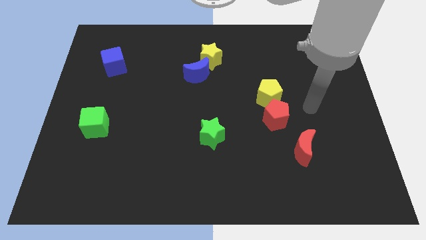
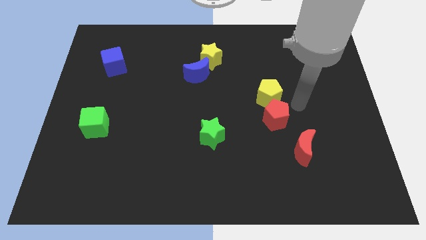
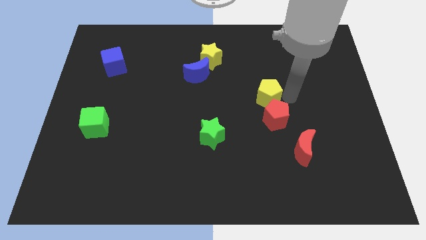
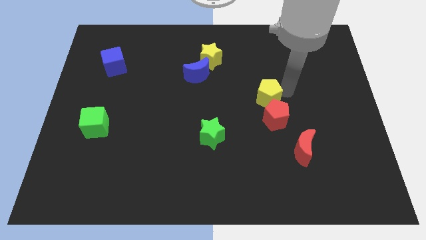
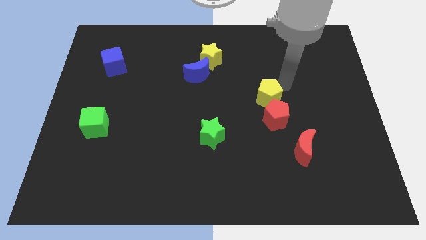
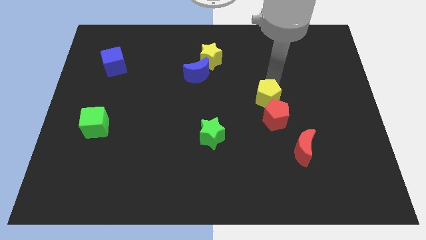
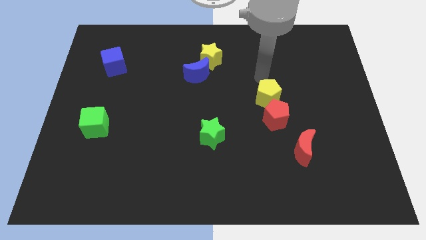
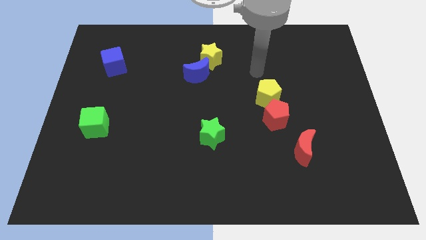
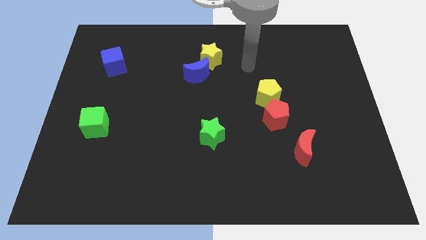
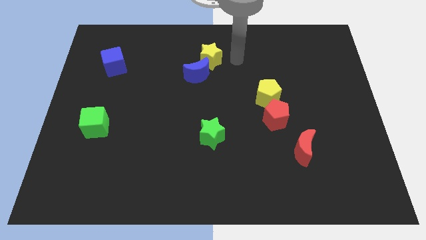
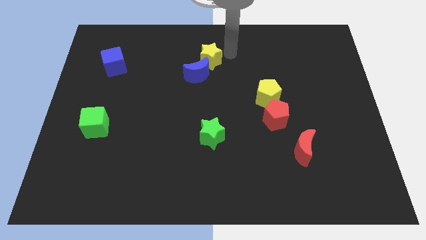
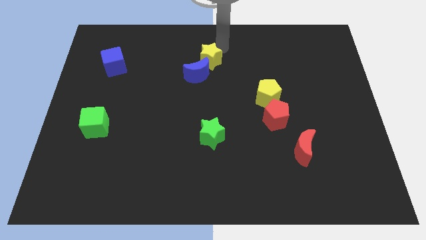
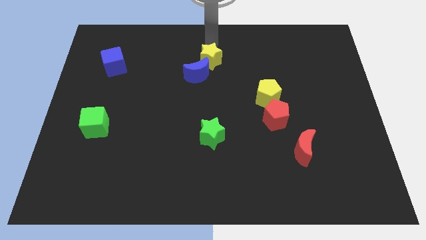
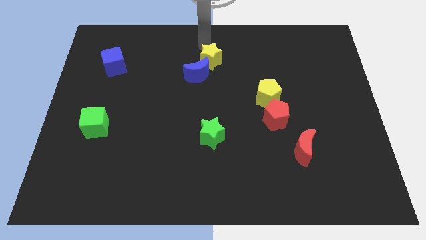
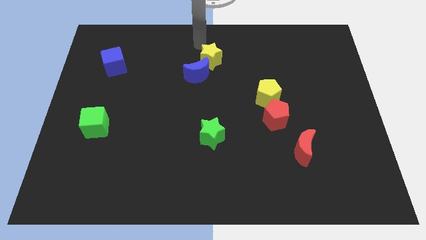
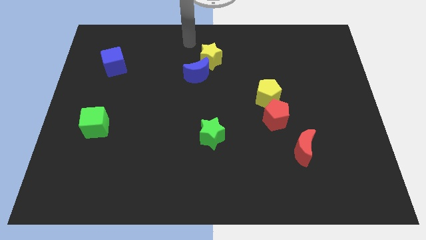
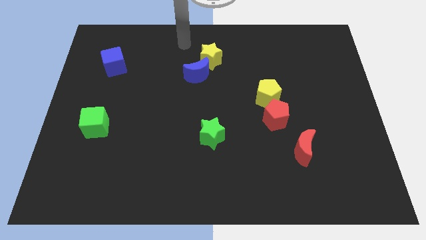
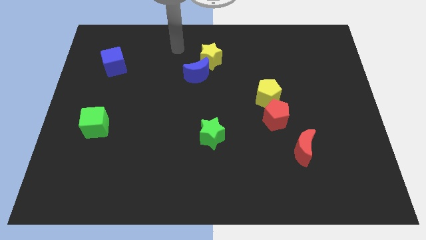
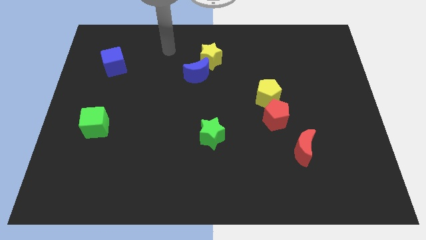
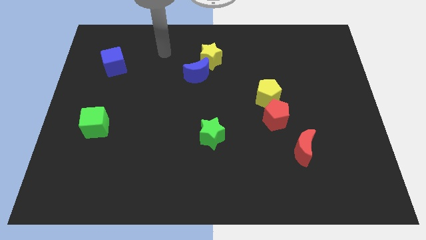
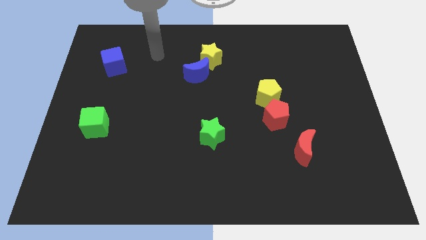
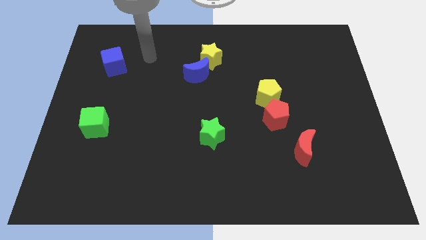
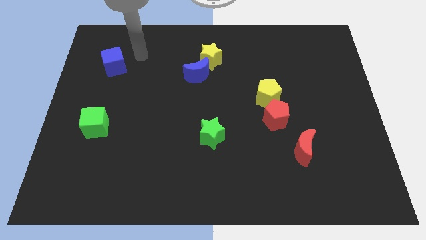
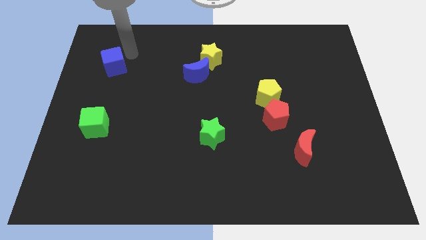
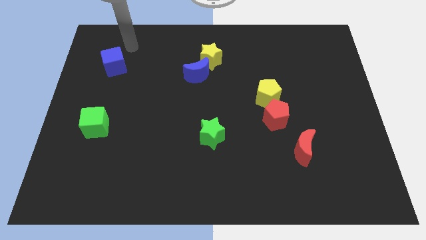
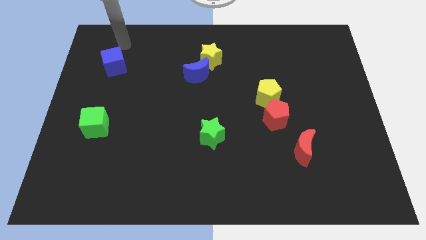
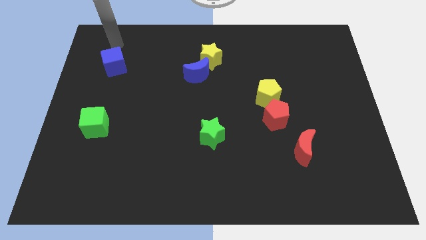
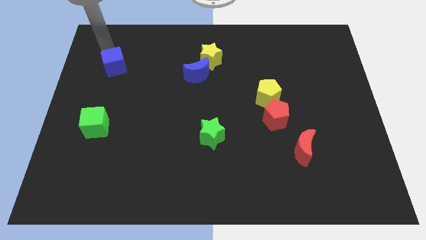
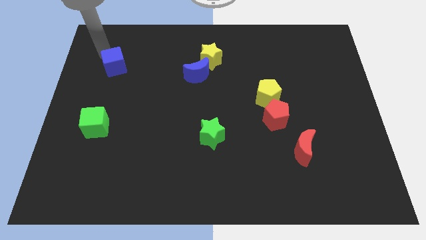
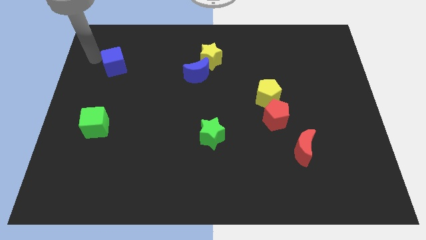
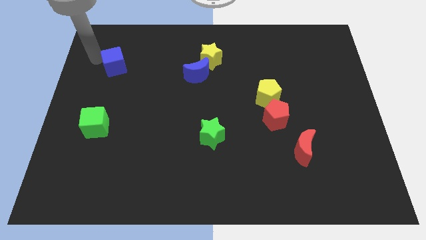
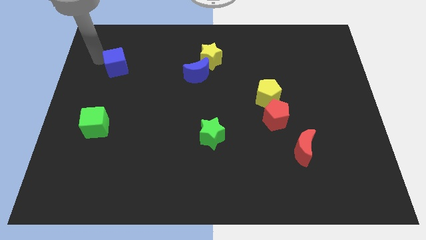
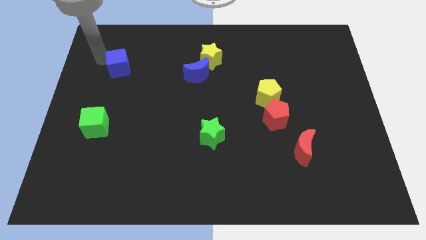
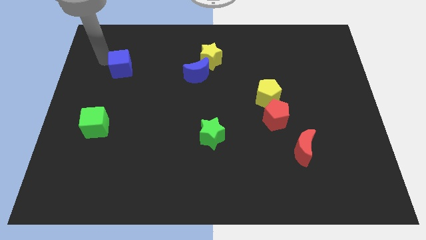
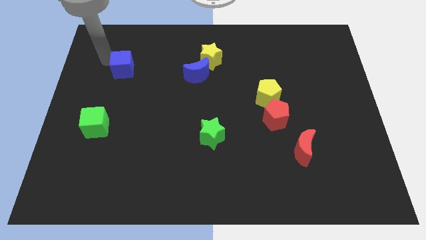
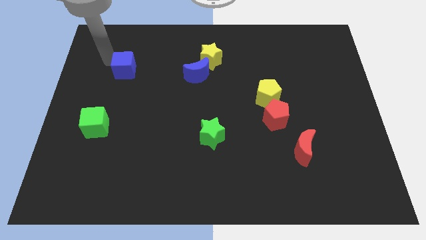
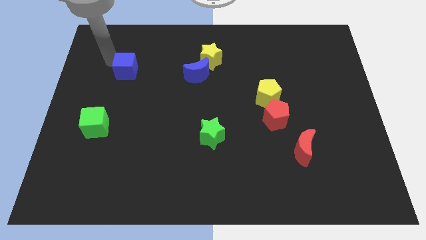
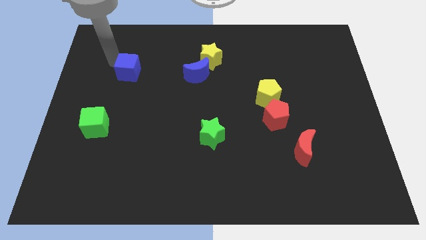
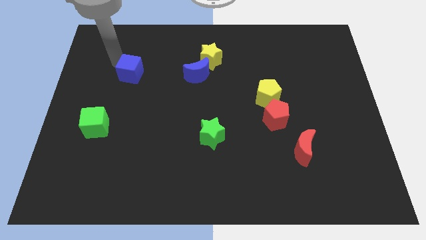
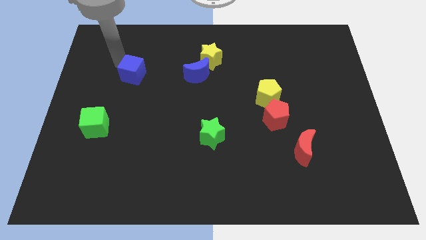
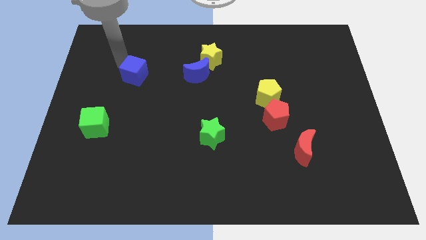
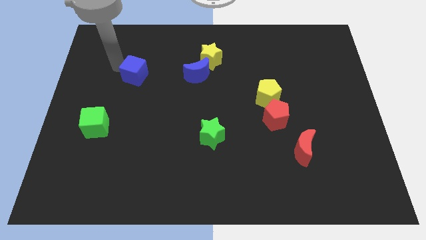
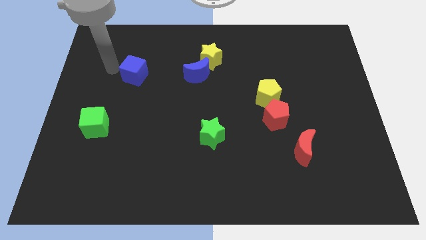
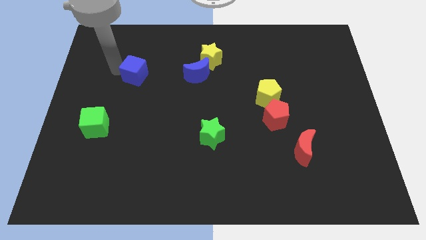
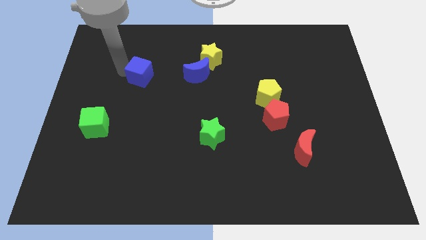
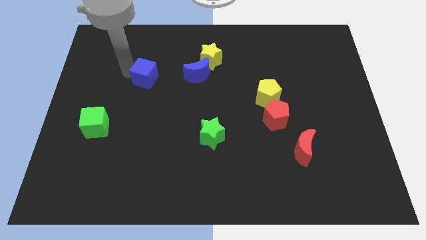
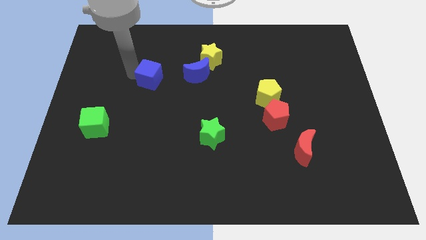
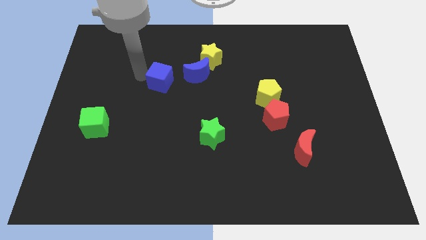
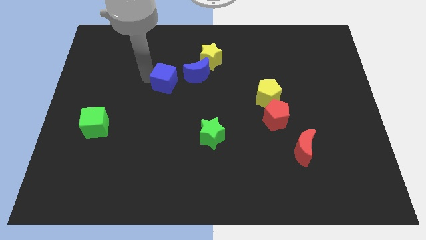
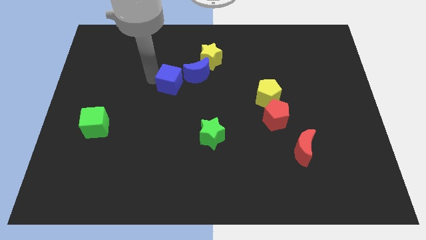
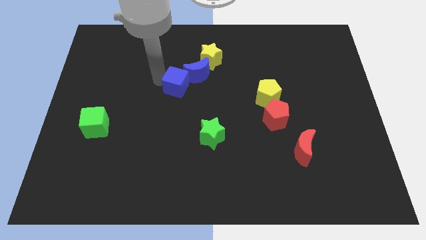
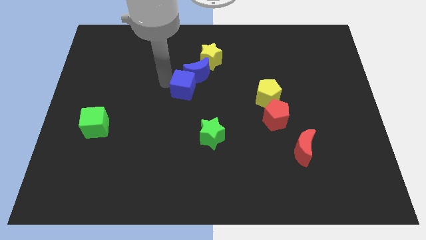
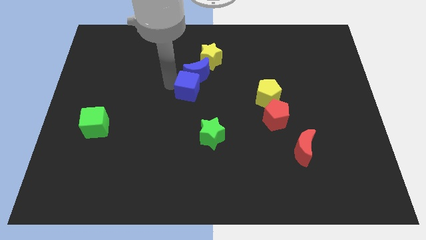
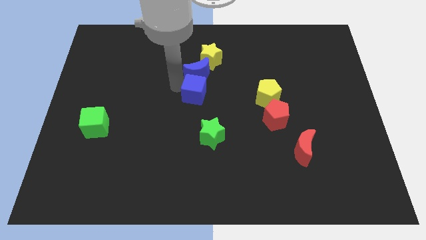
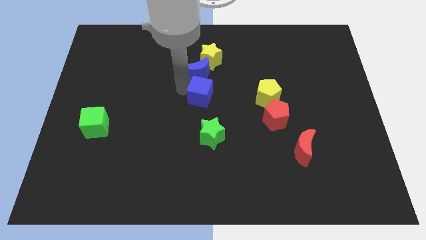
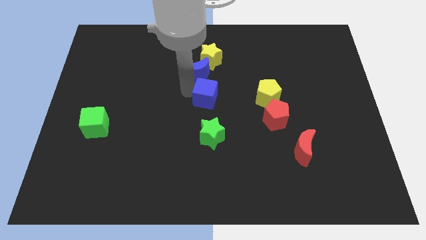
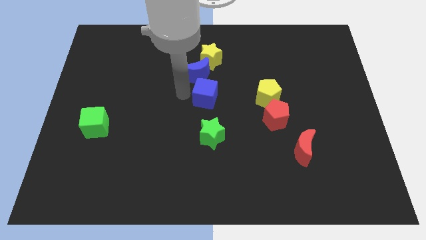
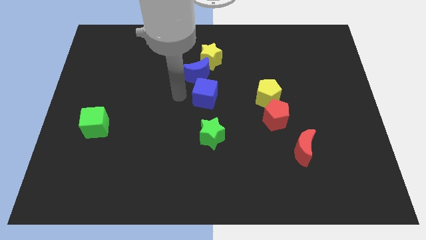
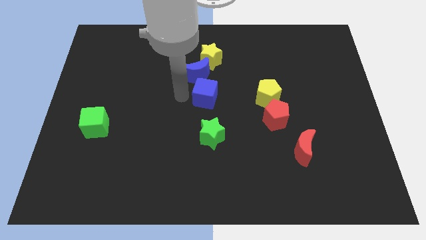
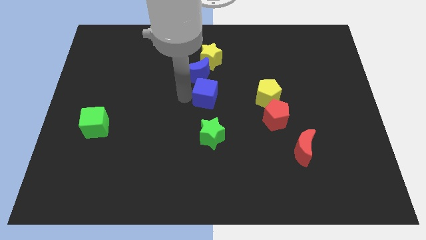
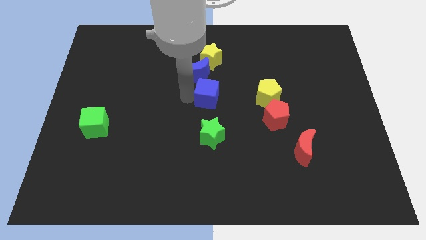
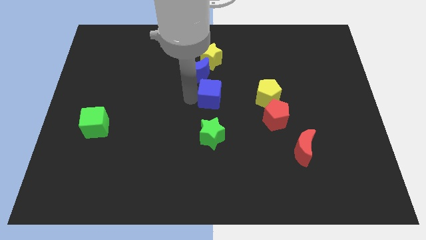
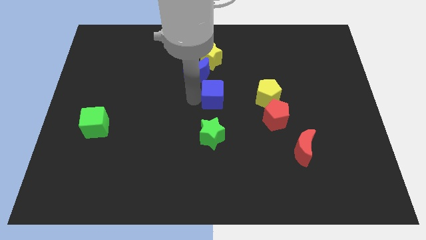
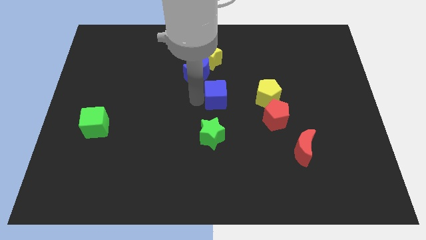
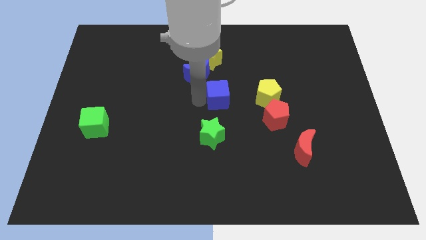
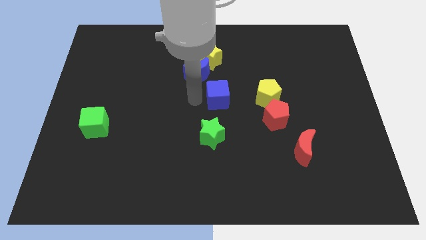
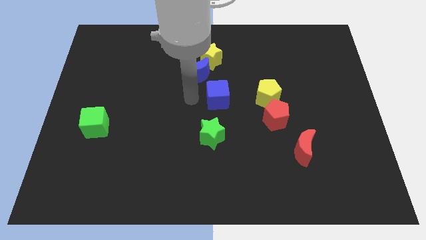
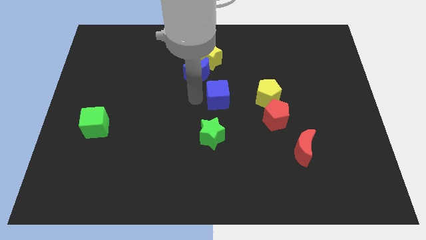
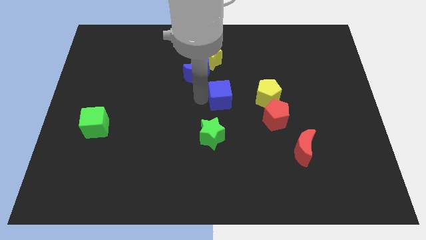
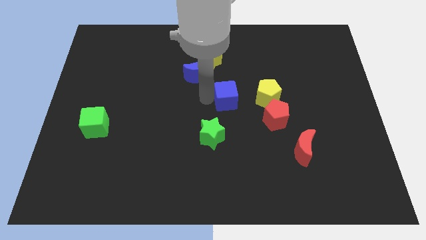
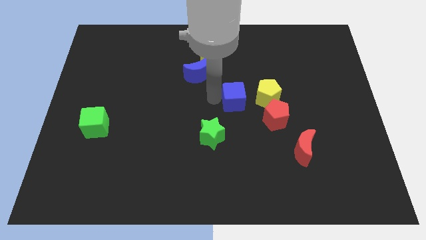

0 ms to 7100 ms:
move the blue cube to the top left side of the red pentagon
